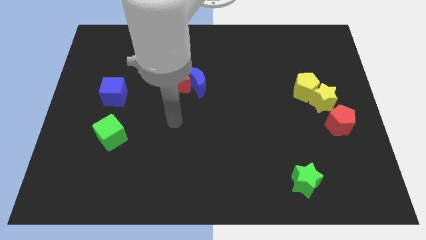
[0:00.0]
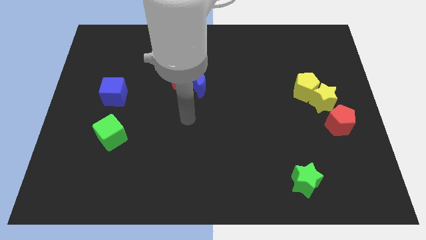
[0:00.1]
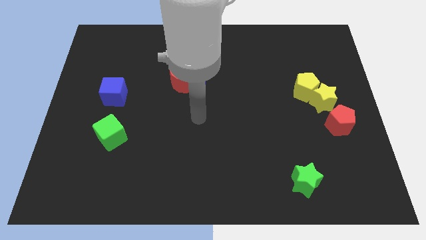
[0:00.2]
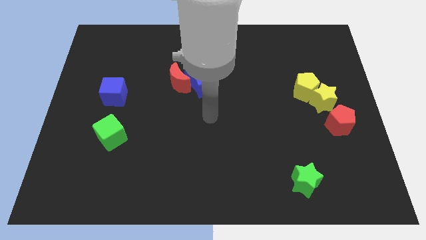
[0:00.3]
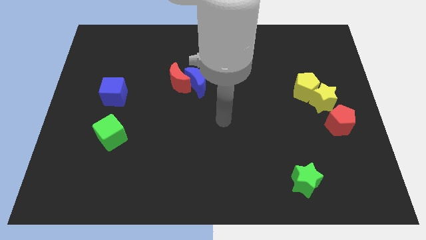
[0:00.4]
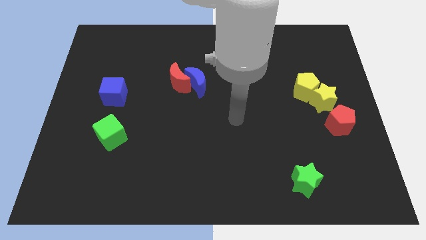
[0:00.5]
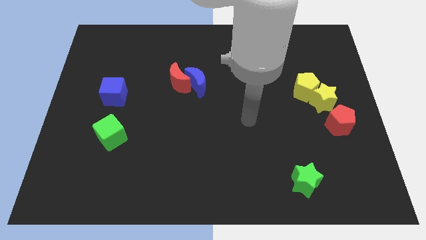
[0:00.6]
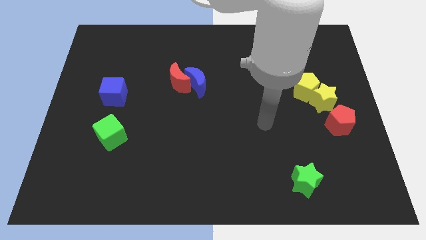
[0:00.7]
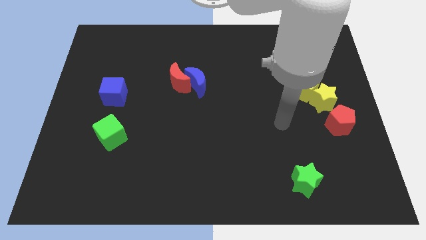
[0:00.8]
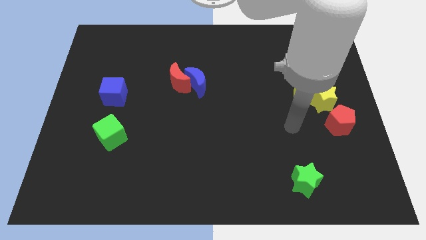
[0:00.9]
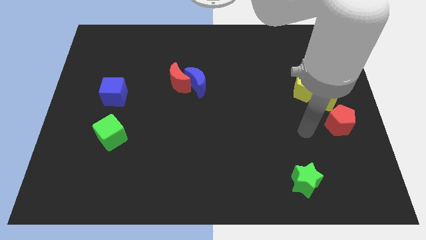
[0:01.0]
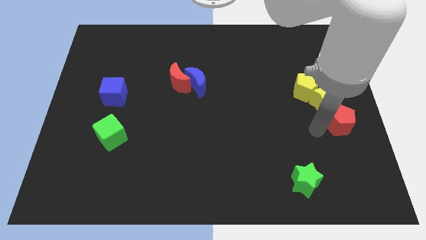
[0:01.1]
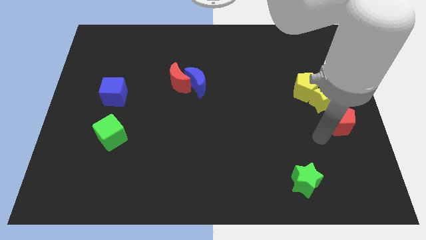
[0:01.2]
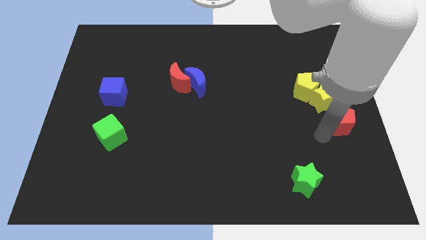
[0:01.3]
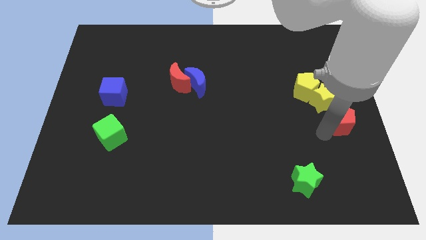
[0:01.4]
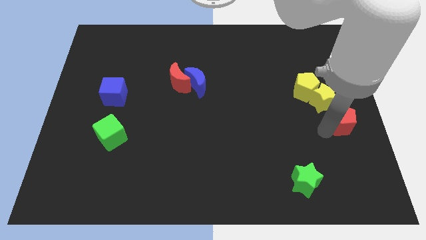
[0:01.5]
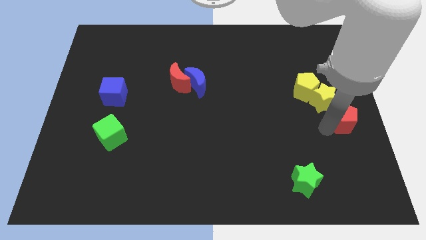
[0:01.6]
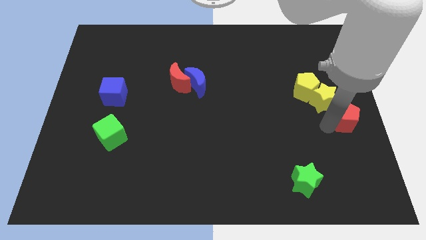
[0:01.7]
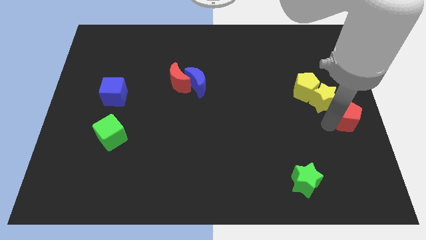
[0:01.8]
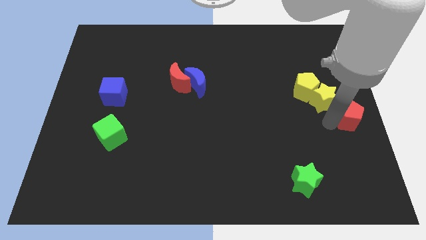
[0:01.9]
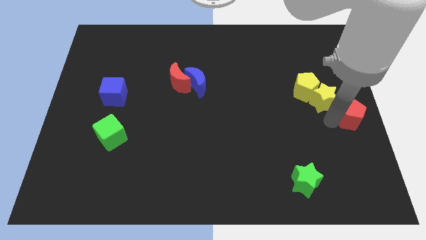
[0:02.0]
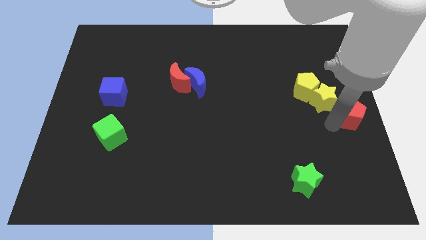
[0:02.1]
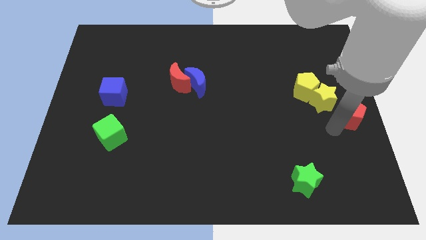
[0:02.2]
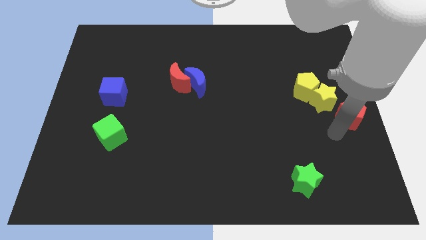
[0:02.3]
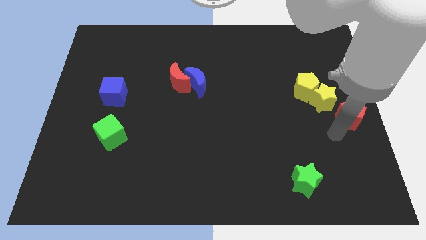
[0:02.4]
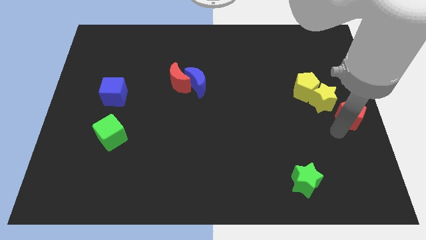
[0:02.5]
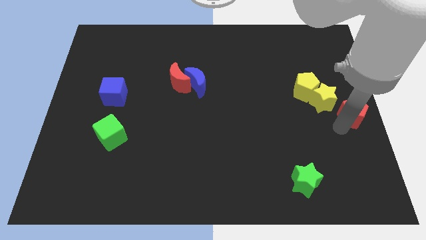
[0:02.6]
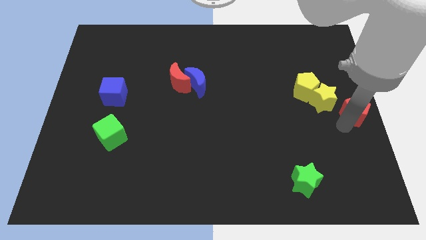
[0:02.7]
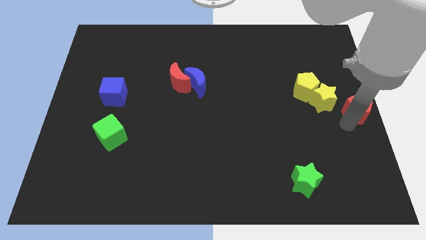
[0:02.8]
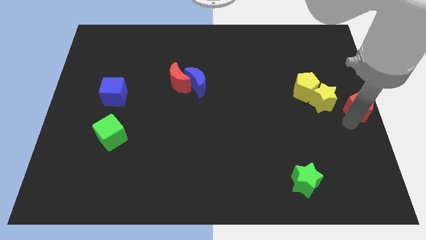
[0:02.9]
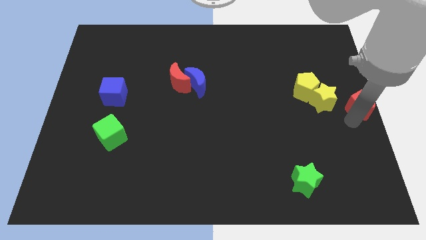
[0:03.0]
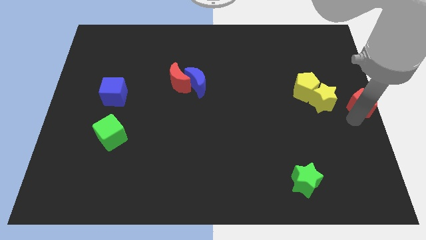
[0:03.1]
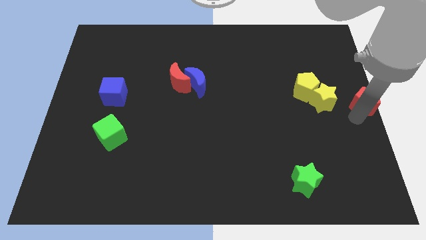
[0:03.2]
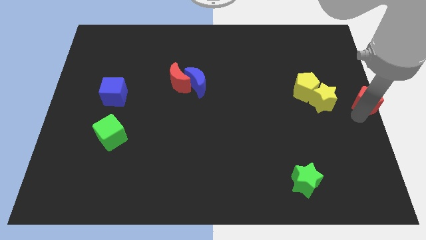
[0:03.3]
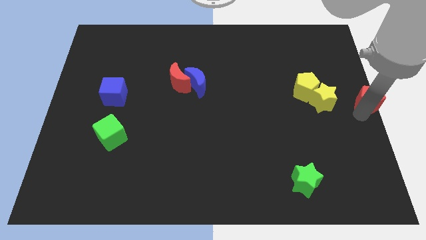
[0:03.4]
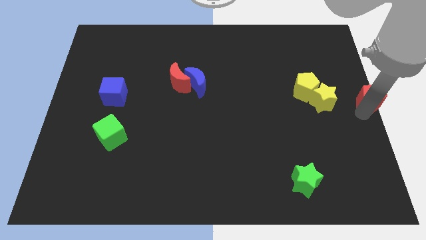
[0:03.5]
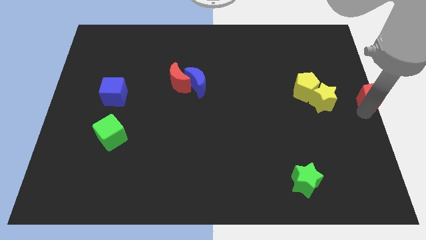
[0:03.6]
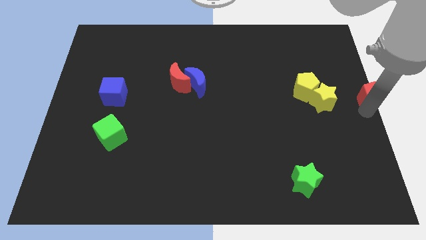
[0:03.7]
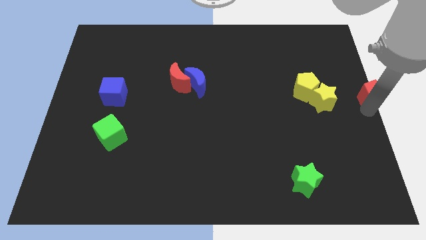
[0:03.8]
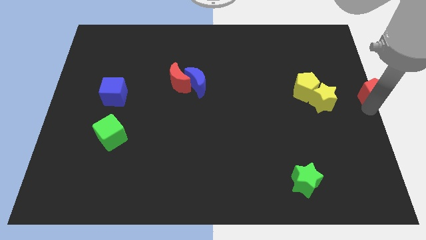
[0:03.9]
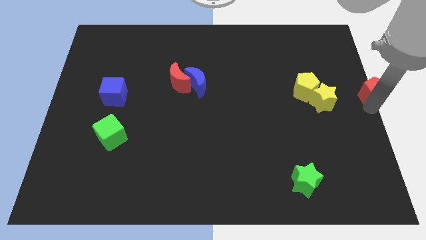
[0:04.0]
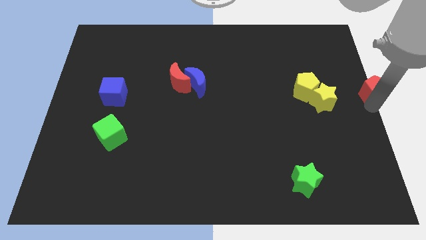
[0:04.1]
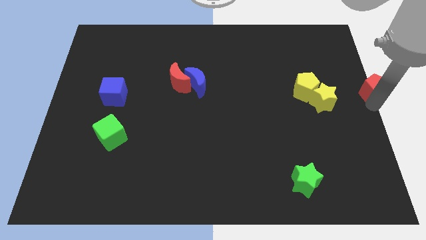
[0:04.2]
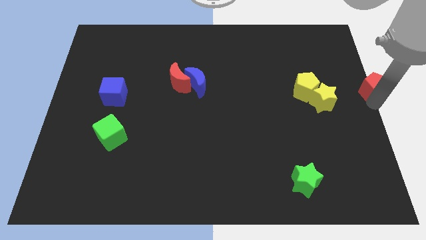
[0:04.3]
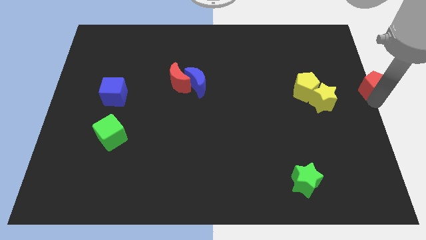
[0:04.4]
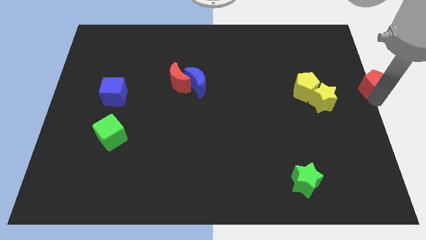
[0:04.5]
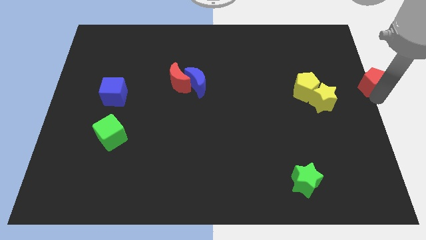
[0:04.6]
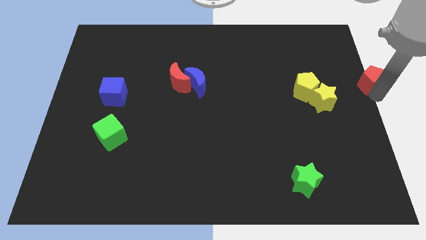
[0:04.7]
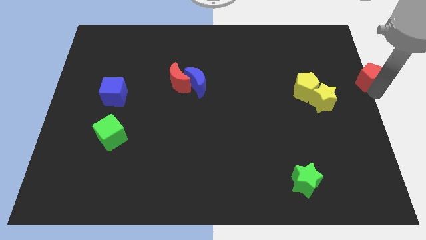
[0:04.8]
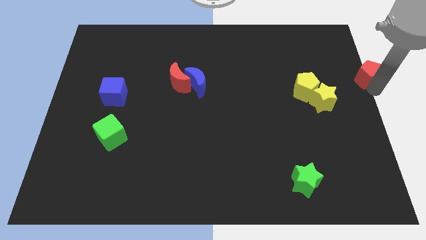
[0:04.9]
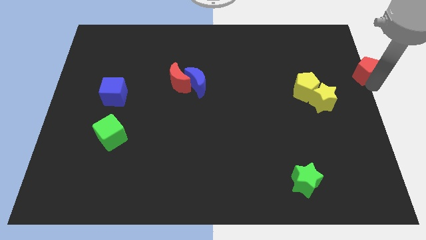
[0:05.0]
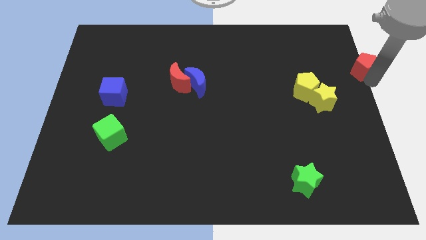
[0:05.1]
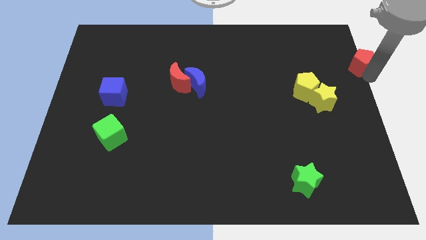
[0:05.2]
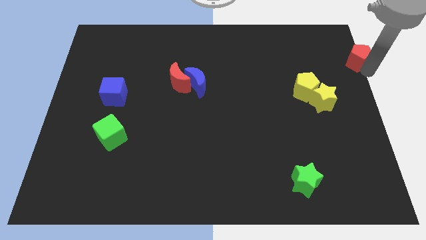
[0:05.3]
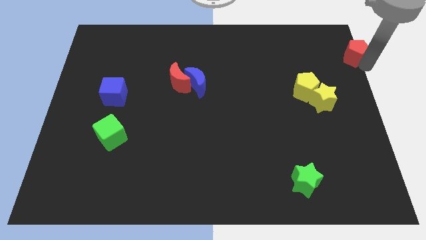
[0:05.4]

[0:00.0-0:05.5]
slide the red pentagon to the top right corner

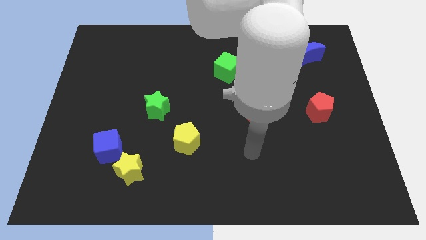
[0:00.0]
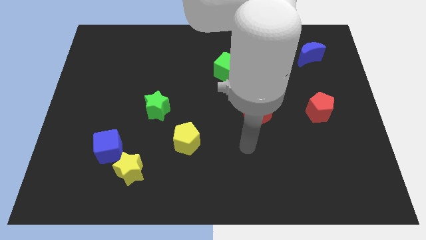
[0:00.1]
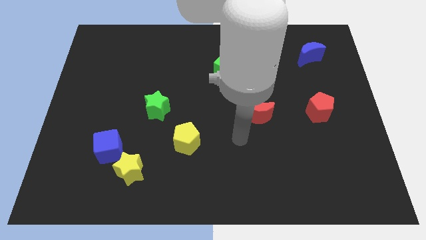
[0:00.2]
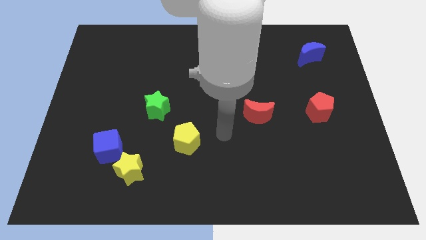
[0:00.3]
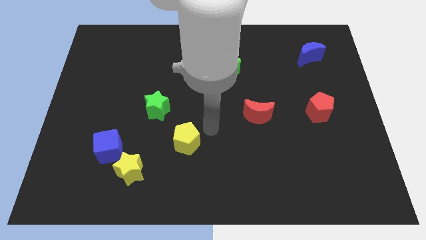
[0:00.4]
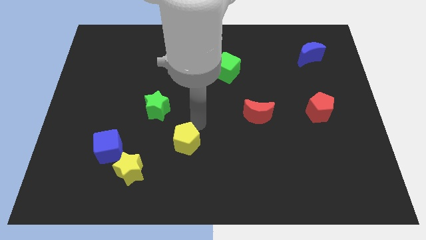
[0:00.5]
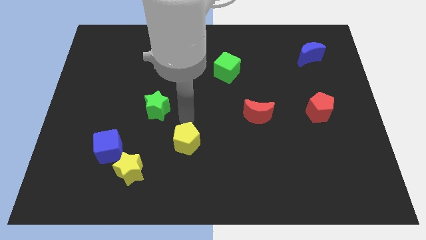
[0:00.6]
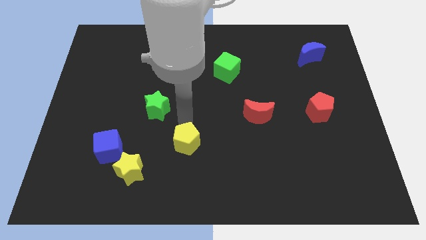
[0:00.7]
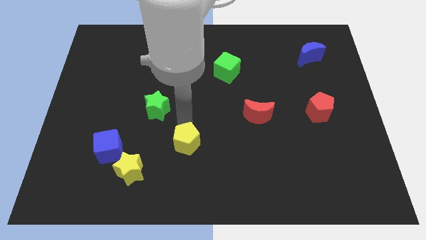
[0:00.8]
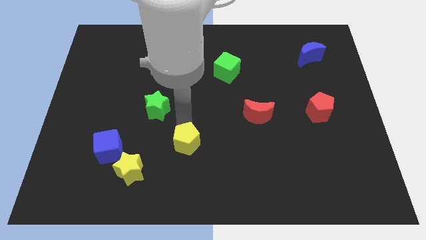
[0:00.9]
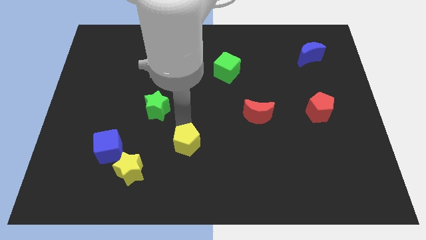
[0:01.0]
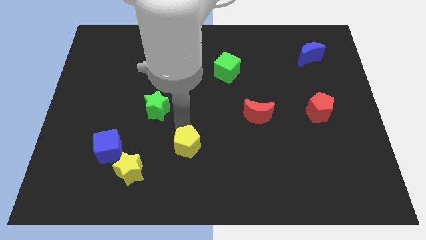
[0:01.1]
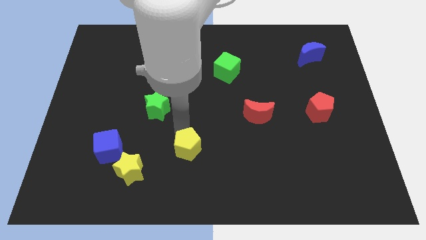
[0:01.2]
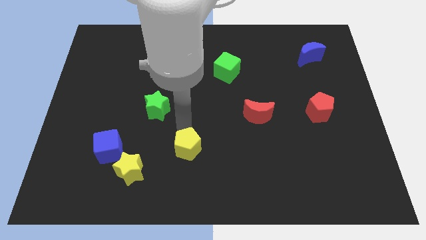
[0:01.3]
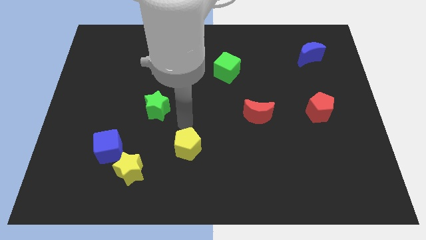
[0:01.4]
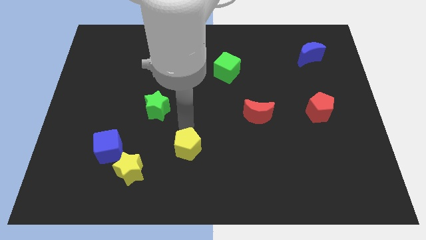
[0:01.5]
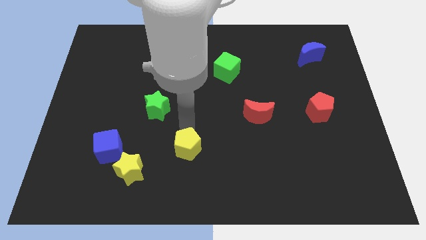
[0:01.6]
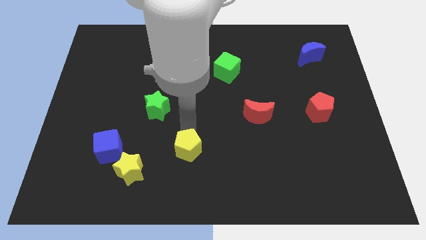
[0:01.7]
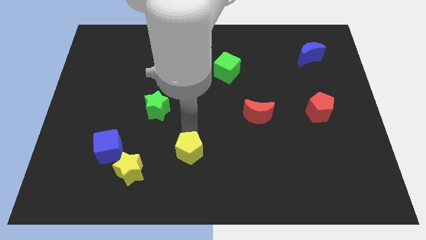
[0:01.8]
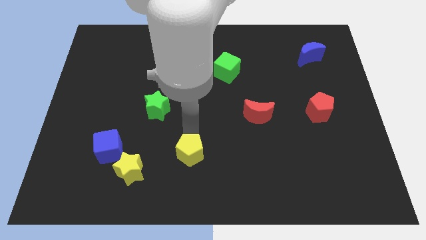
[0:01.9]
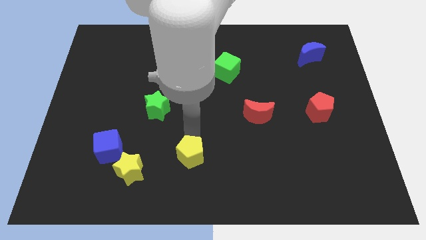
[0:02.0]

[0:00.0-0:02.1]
push the yellow pentagon to the bottom side
